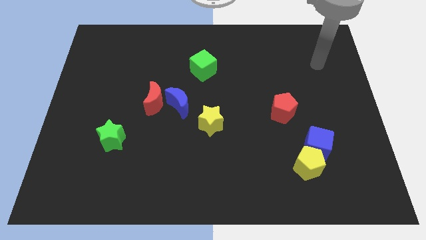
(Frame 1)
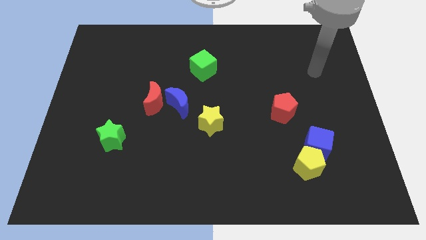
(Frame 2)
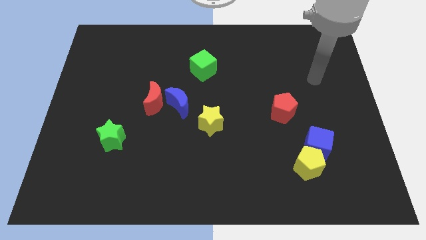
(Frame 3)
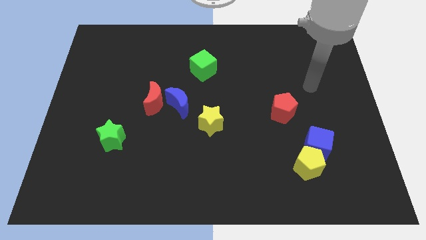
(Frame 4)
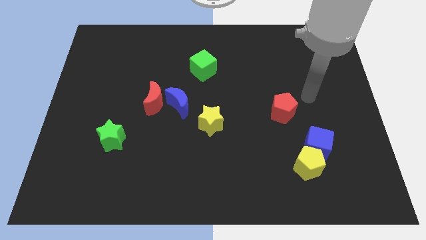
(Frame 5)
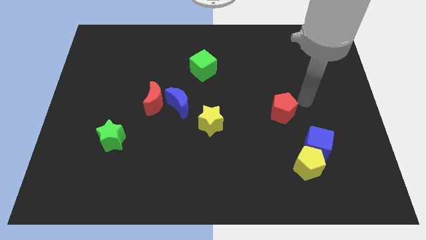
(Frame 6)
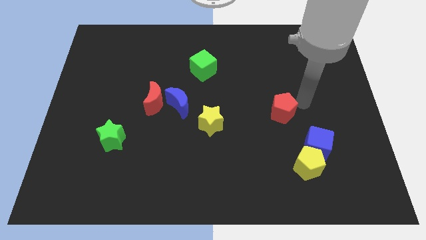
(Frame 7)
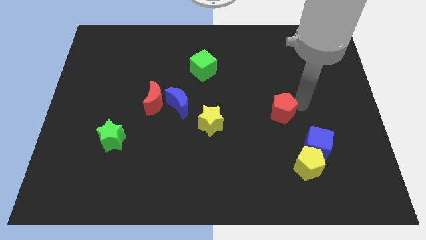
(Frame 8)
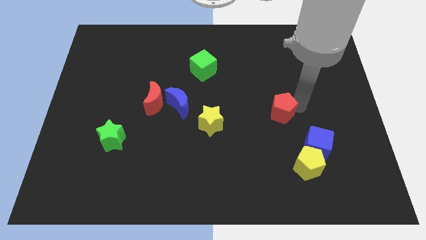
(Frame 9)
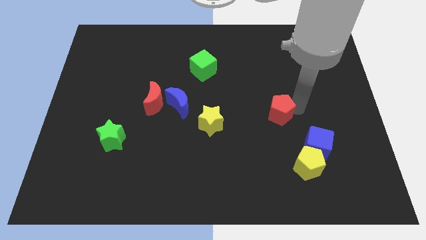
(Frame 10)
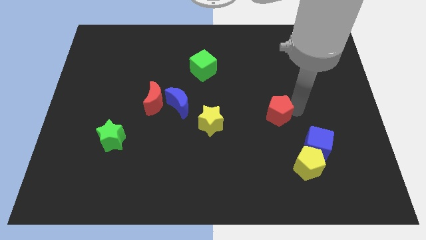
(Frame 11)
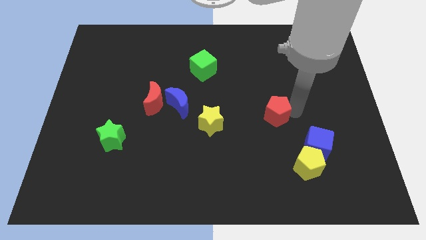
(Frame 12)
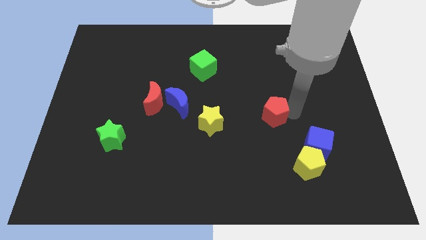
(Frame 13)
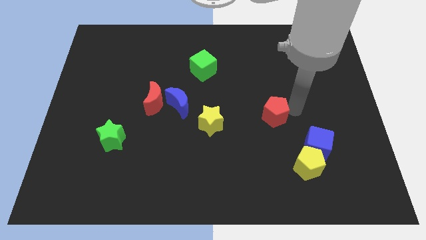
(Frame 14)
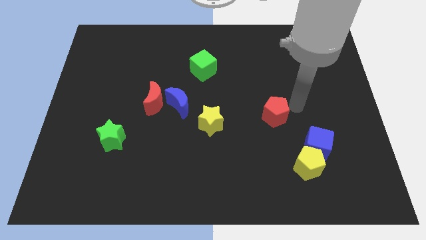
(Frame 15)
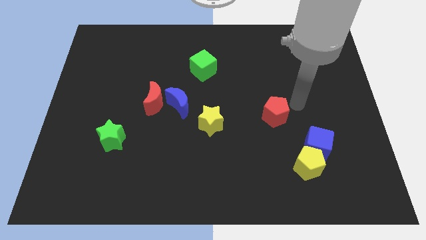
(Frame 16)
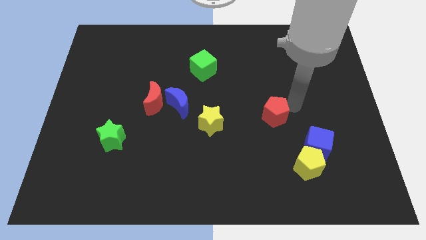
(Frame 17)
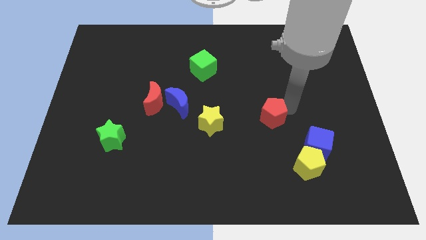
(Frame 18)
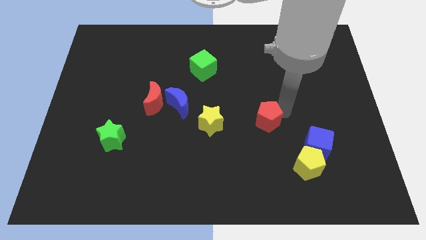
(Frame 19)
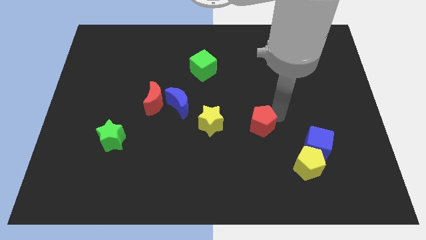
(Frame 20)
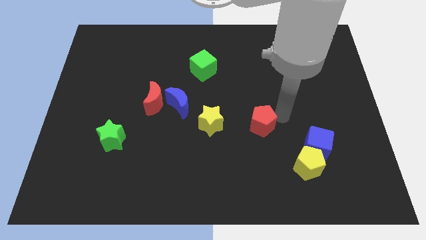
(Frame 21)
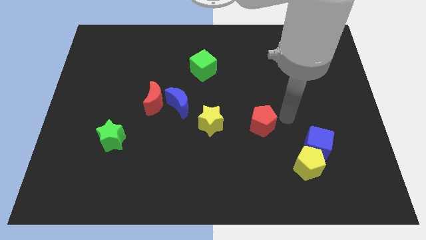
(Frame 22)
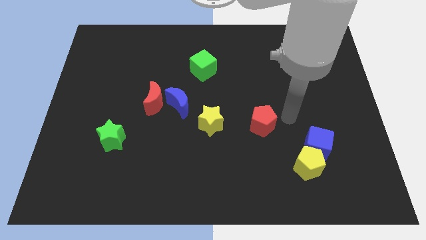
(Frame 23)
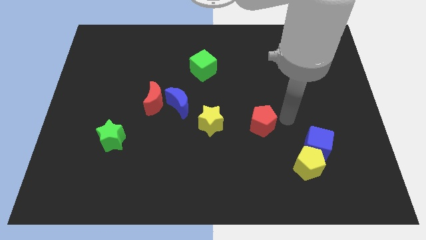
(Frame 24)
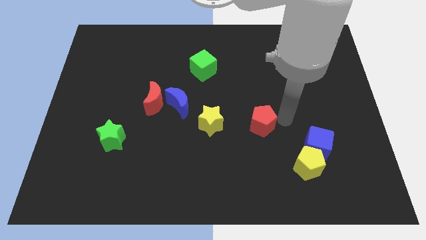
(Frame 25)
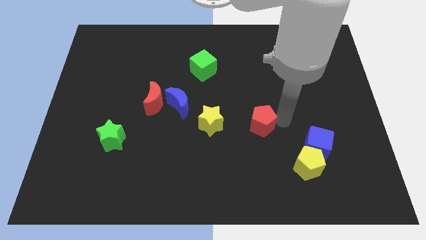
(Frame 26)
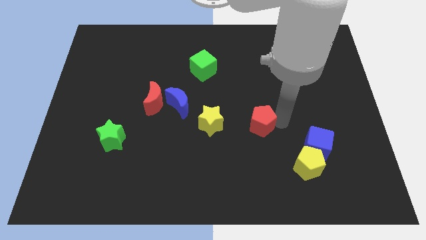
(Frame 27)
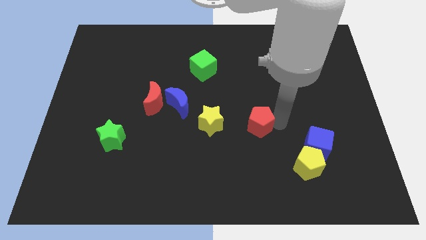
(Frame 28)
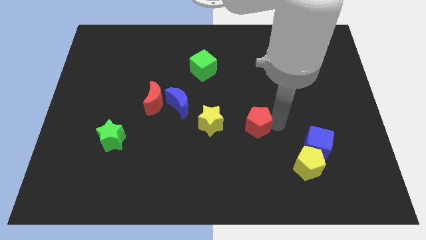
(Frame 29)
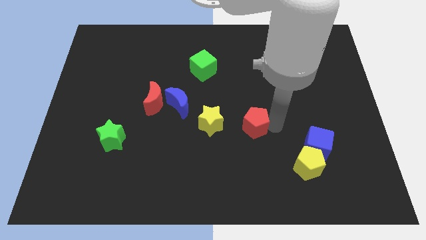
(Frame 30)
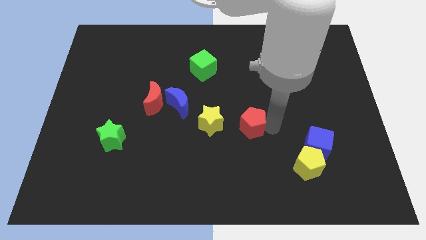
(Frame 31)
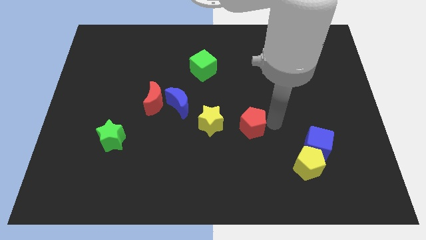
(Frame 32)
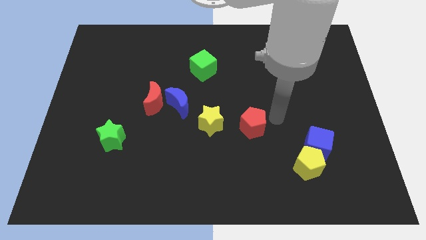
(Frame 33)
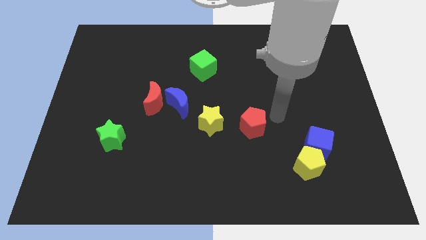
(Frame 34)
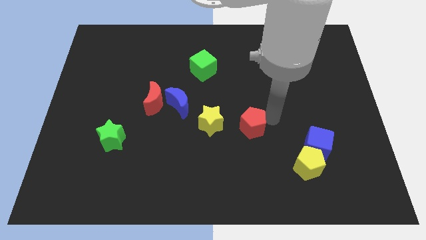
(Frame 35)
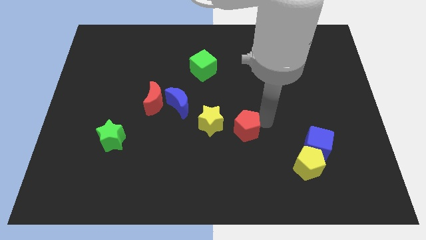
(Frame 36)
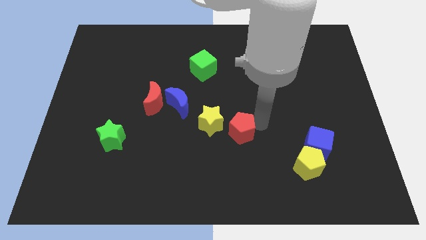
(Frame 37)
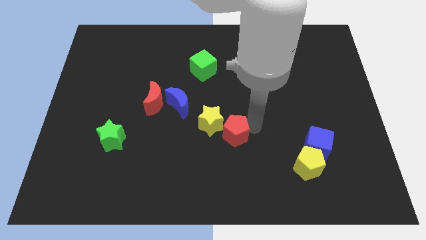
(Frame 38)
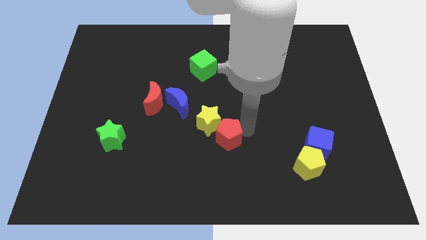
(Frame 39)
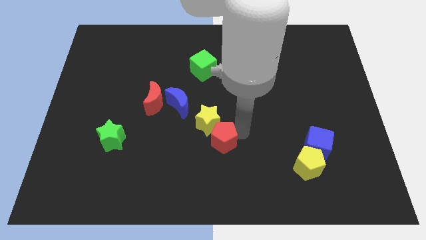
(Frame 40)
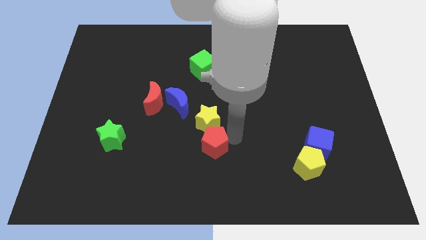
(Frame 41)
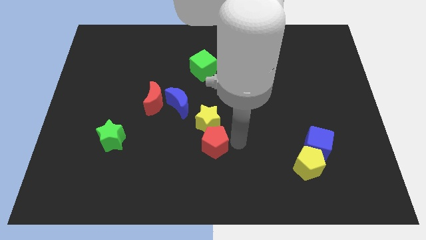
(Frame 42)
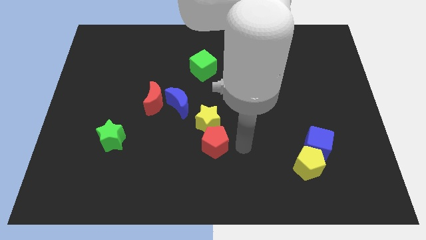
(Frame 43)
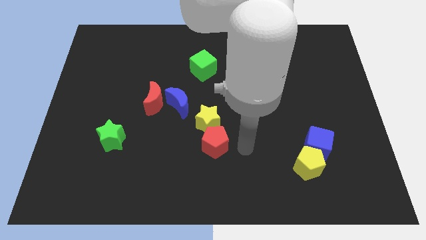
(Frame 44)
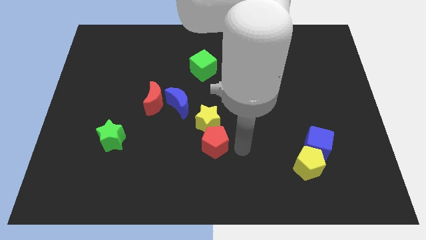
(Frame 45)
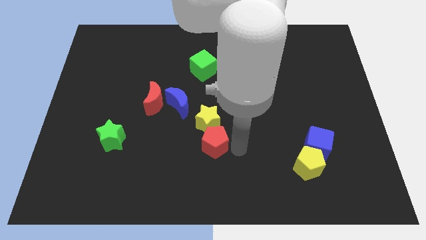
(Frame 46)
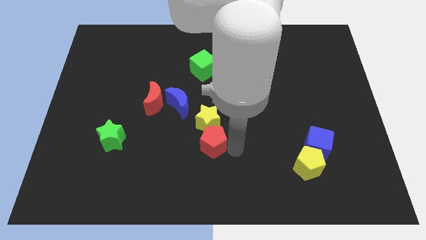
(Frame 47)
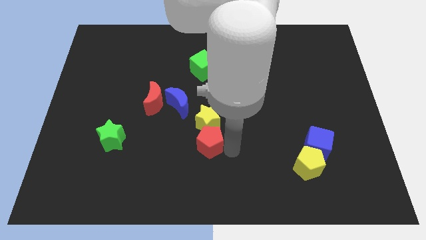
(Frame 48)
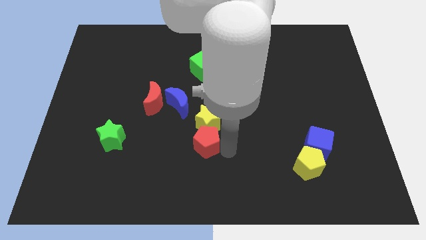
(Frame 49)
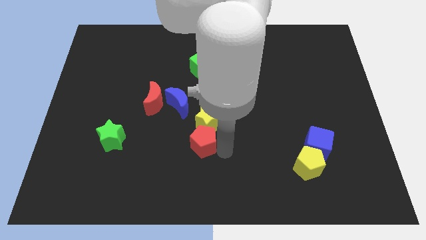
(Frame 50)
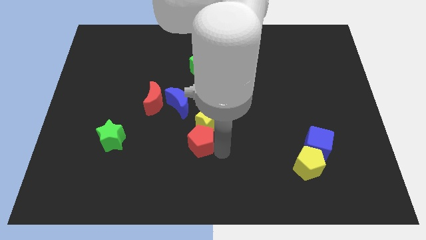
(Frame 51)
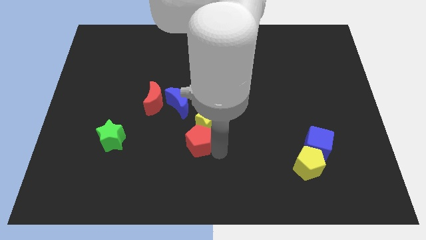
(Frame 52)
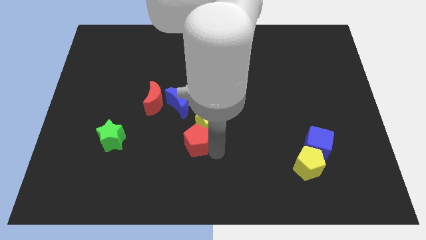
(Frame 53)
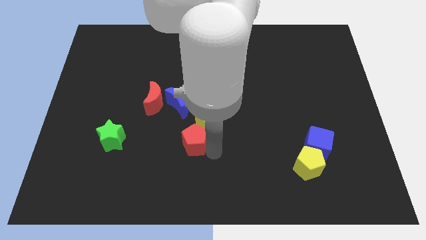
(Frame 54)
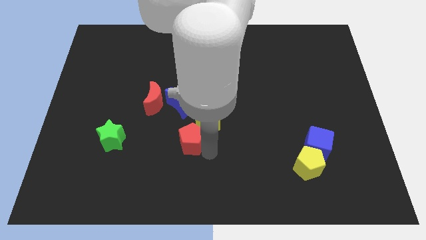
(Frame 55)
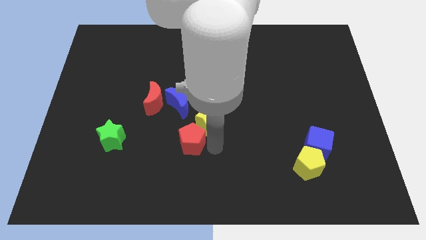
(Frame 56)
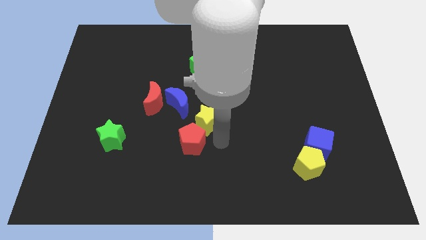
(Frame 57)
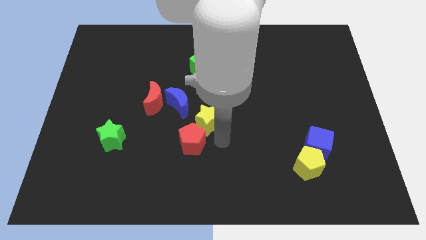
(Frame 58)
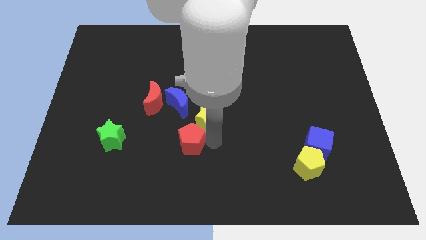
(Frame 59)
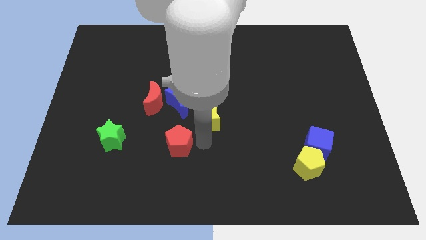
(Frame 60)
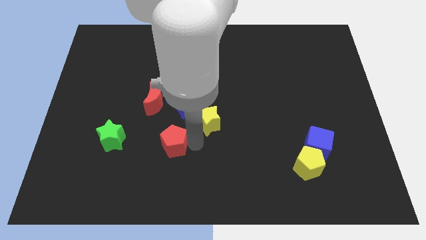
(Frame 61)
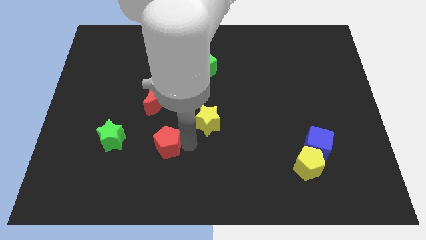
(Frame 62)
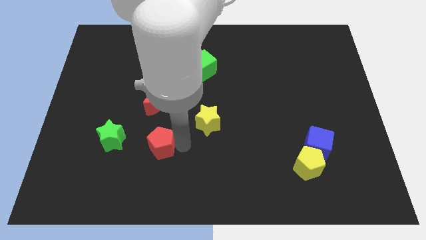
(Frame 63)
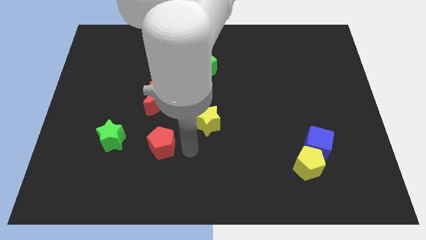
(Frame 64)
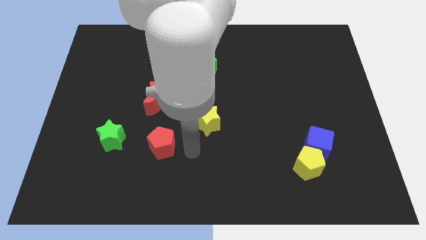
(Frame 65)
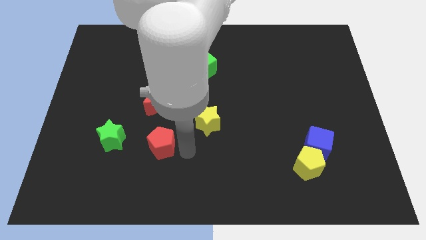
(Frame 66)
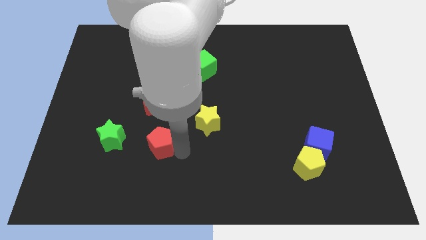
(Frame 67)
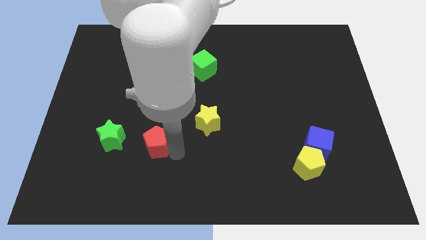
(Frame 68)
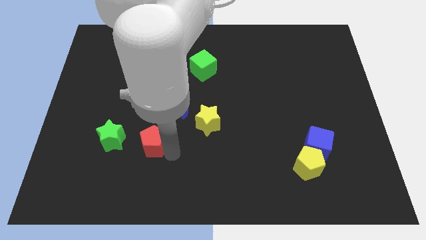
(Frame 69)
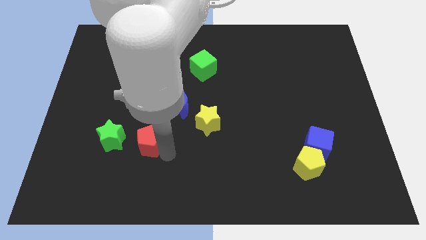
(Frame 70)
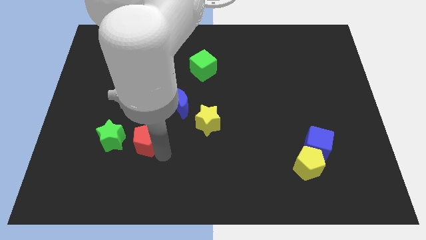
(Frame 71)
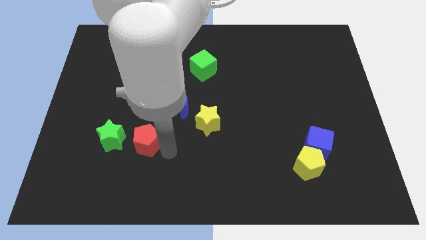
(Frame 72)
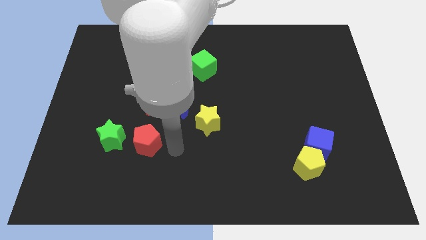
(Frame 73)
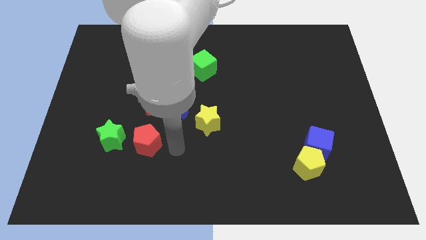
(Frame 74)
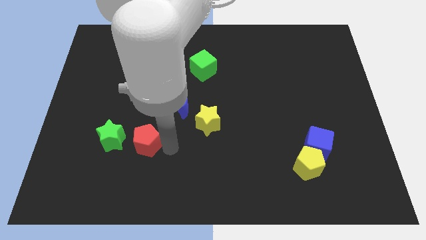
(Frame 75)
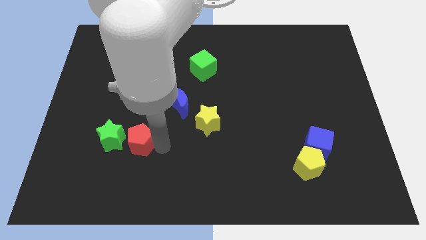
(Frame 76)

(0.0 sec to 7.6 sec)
move the red pentagon next to the green star
